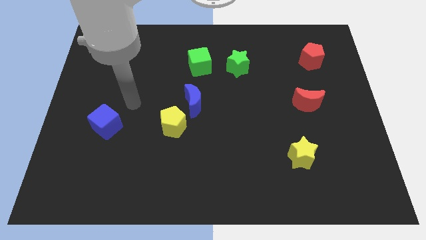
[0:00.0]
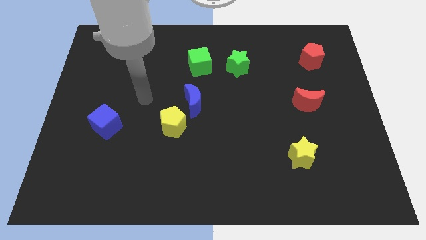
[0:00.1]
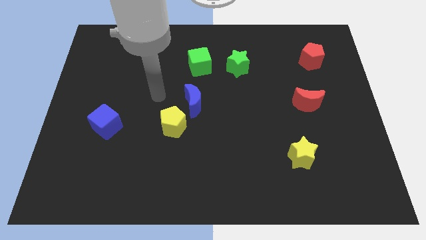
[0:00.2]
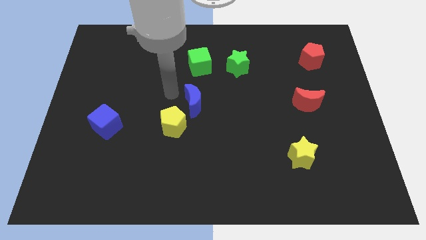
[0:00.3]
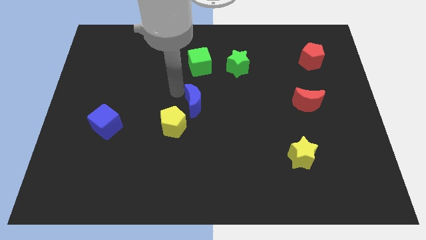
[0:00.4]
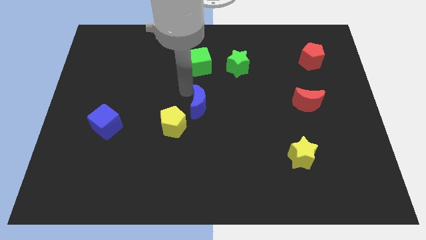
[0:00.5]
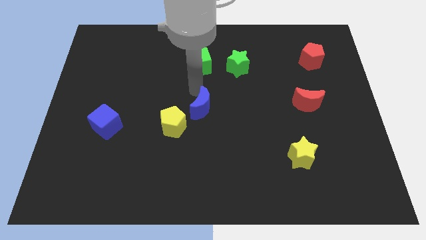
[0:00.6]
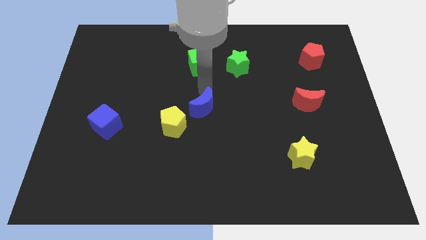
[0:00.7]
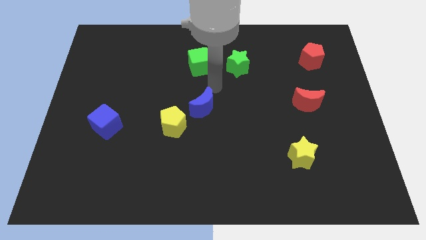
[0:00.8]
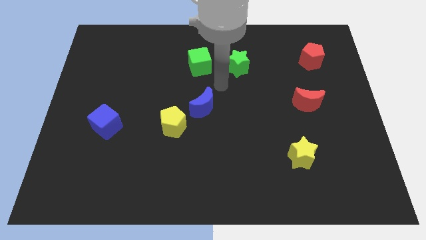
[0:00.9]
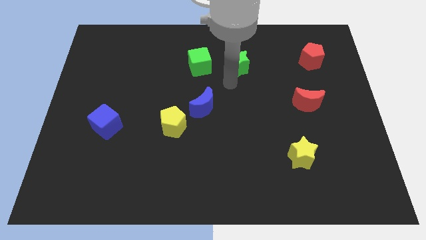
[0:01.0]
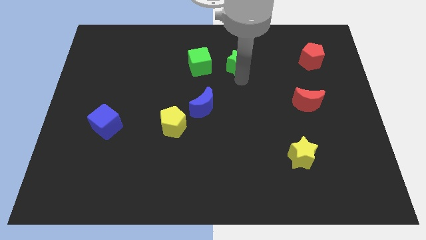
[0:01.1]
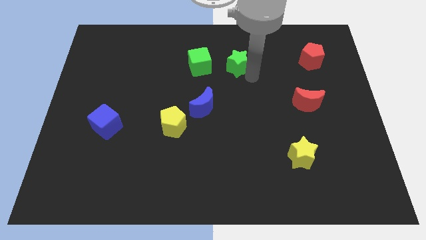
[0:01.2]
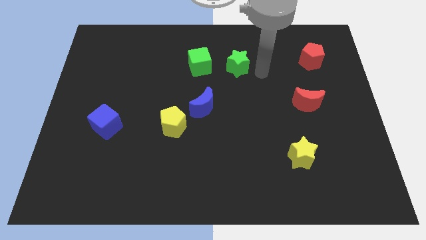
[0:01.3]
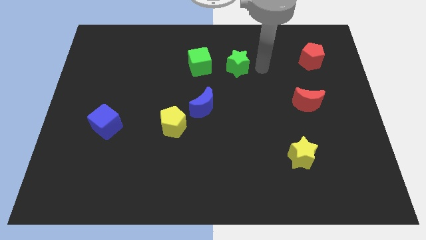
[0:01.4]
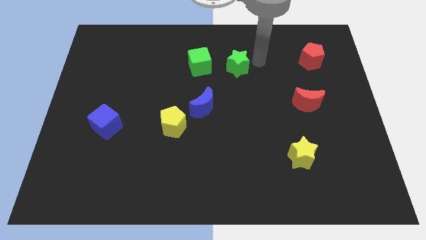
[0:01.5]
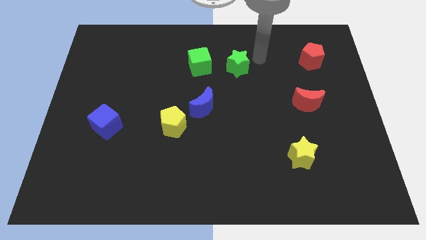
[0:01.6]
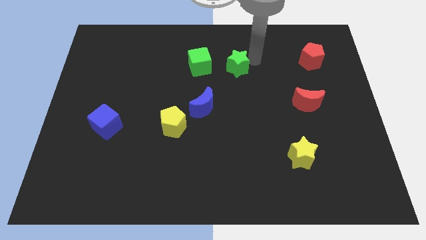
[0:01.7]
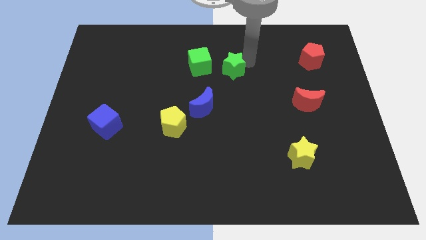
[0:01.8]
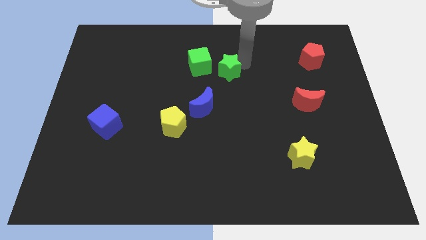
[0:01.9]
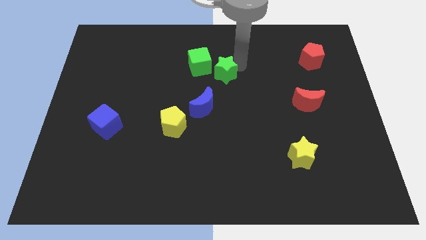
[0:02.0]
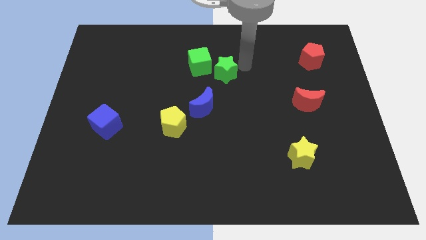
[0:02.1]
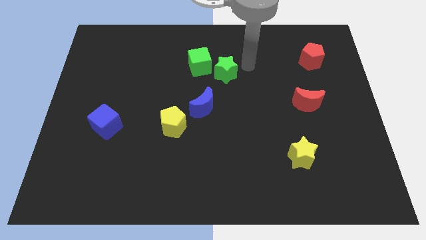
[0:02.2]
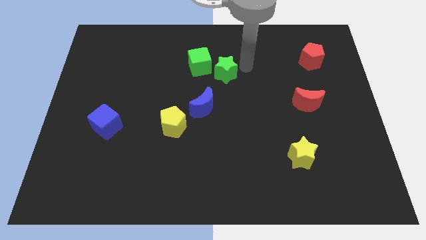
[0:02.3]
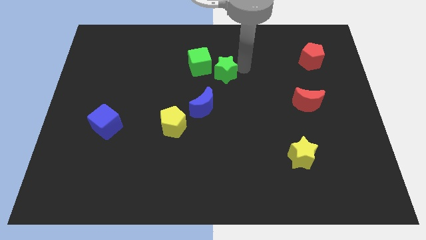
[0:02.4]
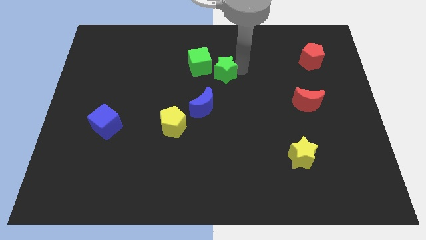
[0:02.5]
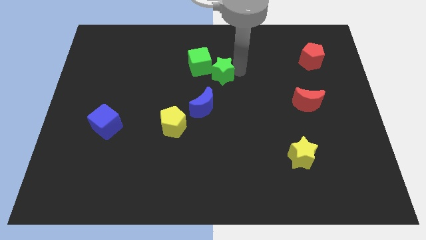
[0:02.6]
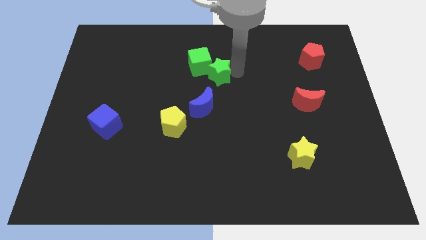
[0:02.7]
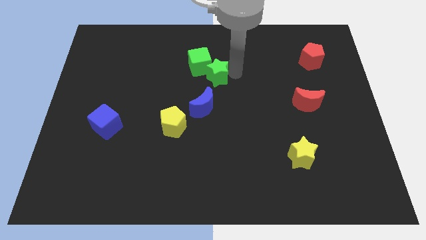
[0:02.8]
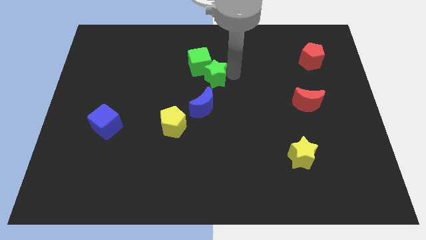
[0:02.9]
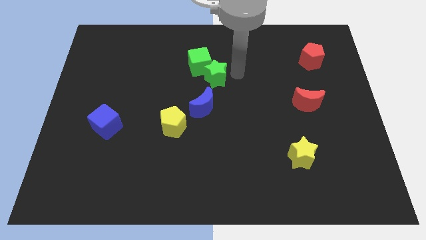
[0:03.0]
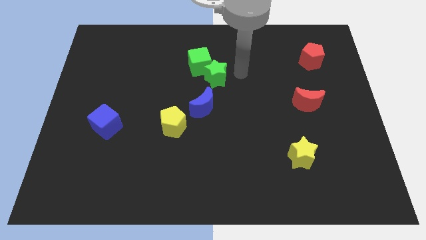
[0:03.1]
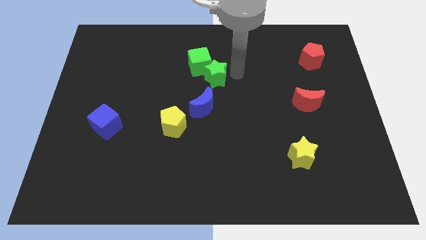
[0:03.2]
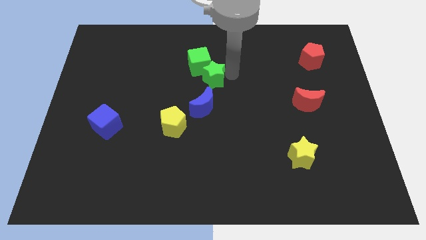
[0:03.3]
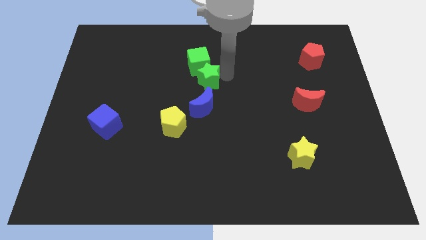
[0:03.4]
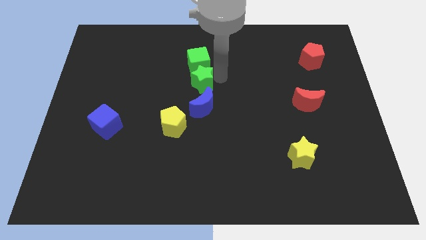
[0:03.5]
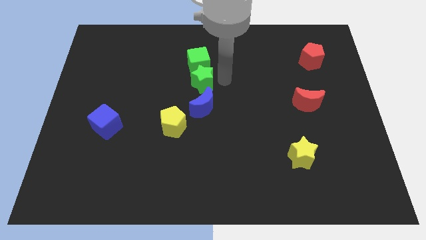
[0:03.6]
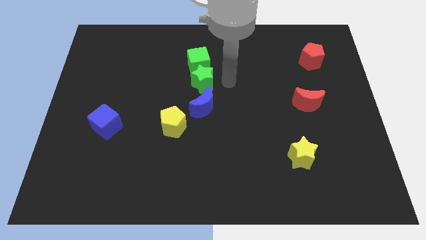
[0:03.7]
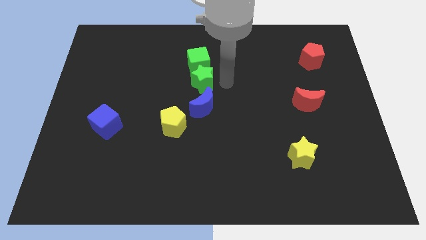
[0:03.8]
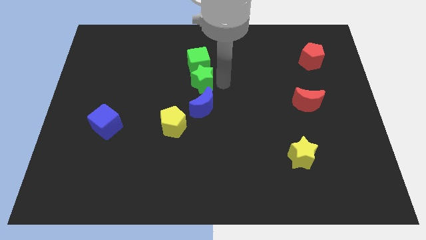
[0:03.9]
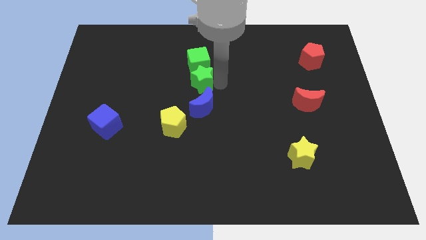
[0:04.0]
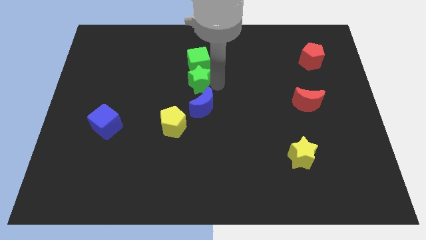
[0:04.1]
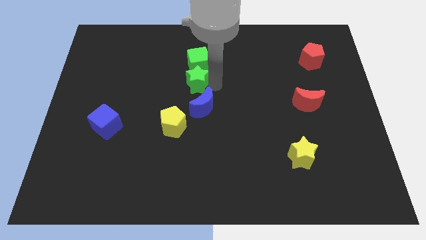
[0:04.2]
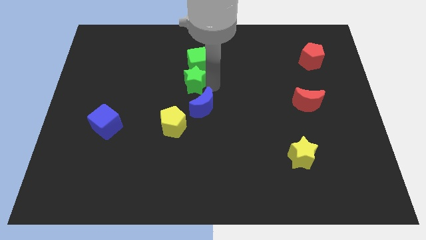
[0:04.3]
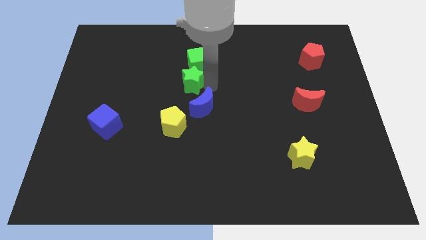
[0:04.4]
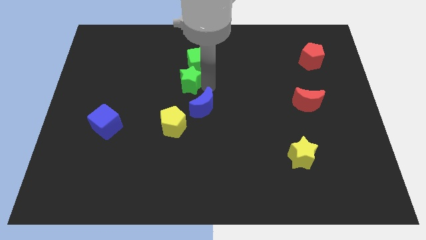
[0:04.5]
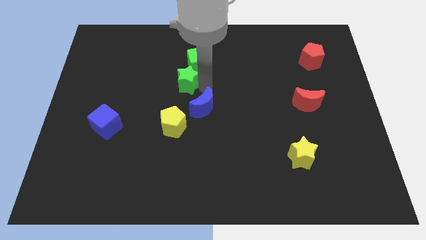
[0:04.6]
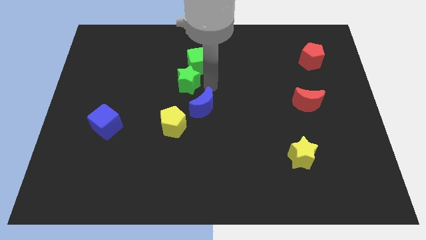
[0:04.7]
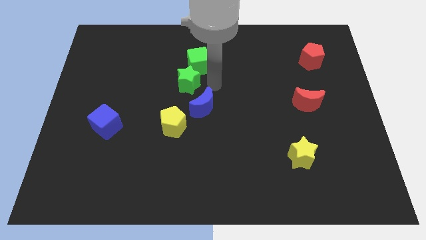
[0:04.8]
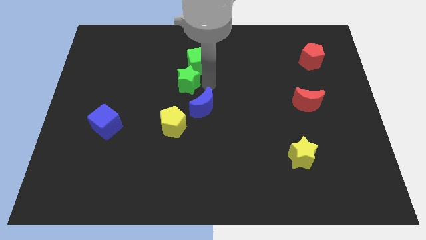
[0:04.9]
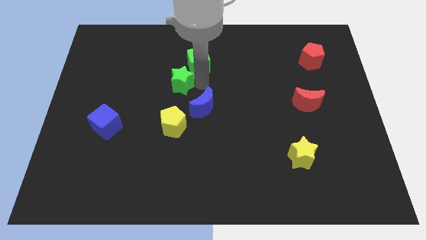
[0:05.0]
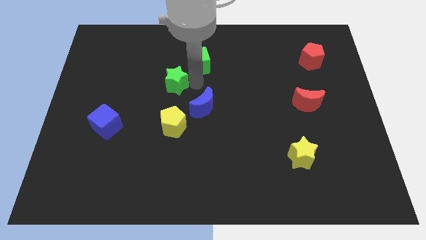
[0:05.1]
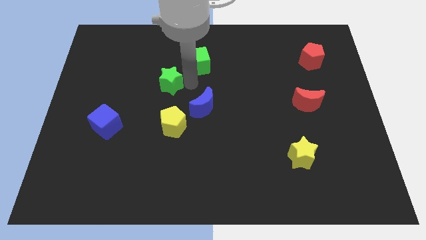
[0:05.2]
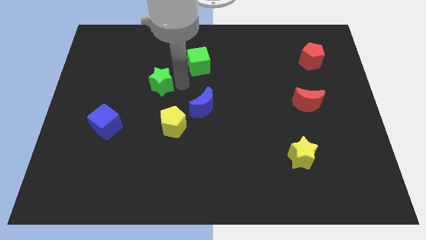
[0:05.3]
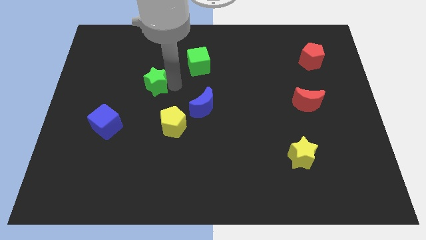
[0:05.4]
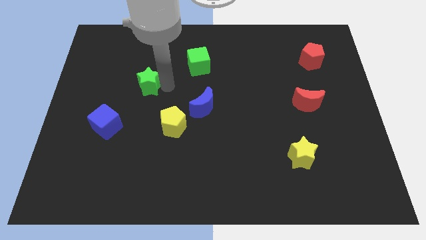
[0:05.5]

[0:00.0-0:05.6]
push the green star to the left

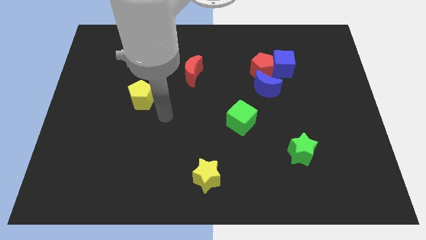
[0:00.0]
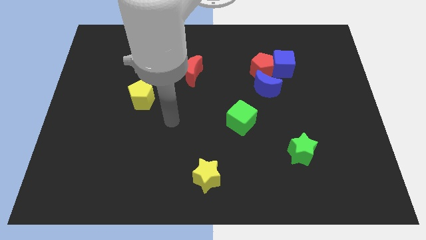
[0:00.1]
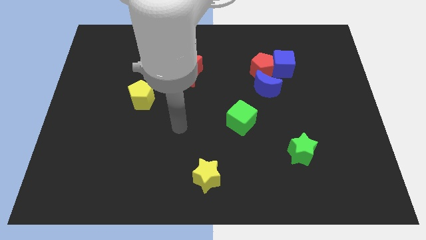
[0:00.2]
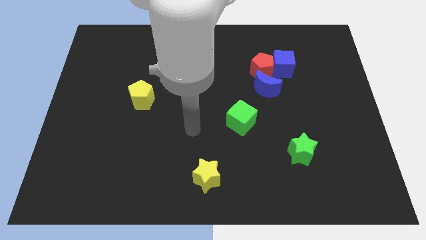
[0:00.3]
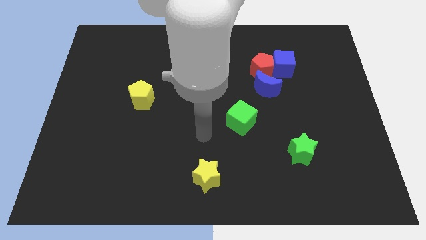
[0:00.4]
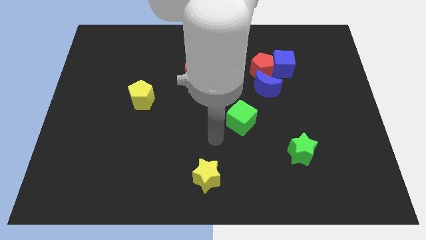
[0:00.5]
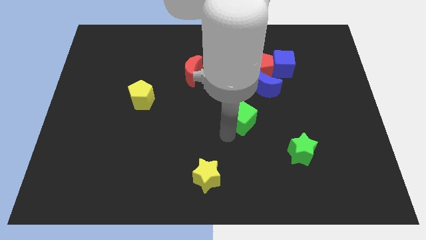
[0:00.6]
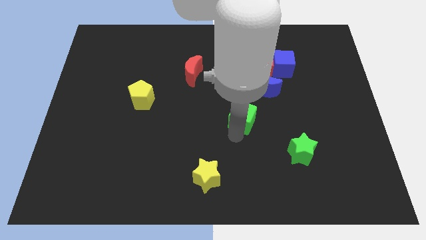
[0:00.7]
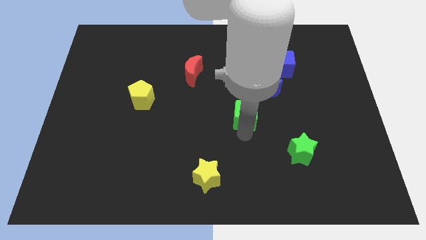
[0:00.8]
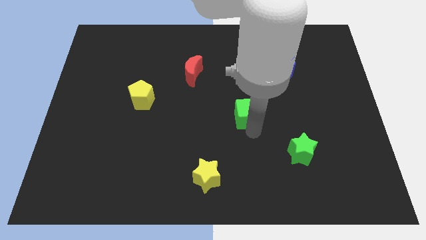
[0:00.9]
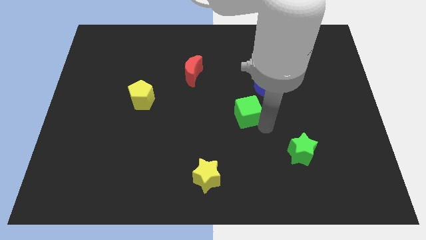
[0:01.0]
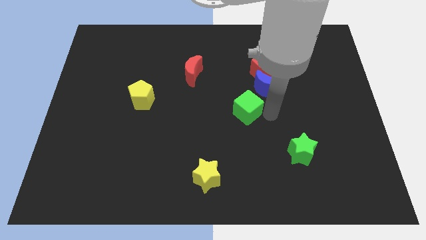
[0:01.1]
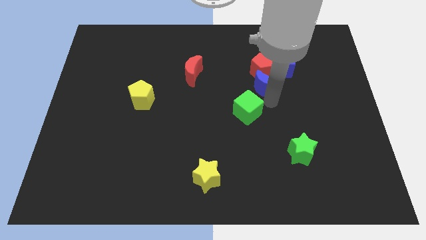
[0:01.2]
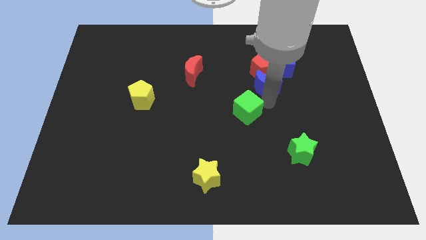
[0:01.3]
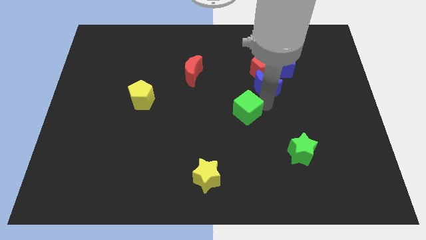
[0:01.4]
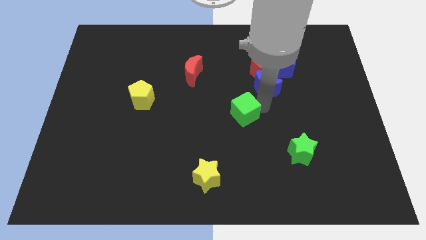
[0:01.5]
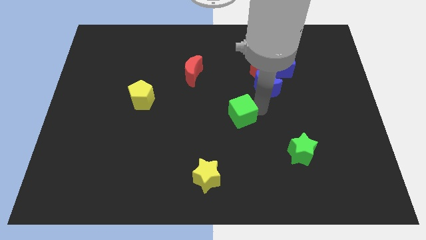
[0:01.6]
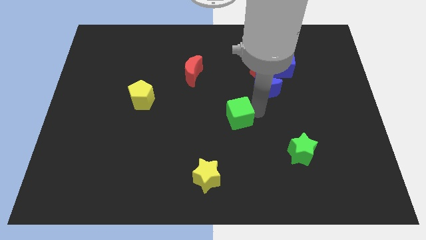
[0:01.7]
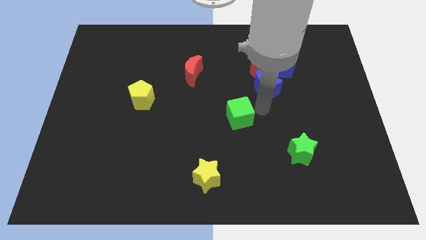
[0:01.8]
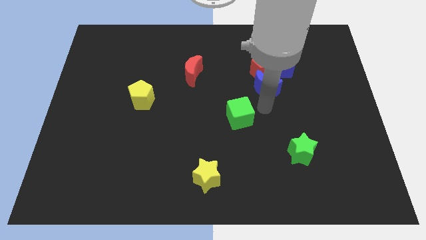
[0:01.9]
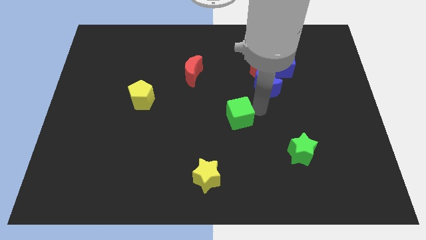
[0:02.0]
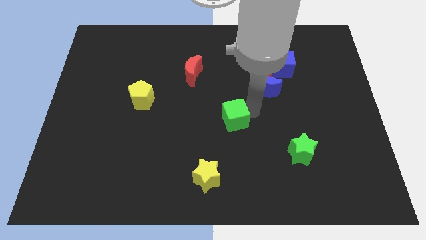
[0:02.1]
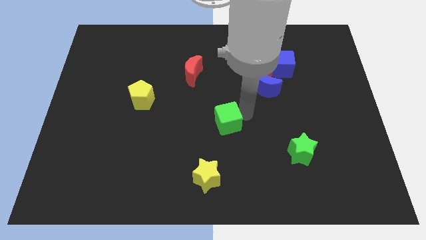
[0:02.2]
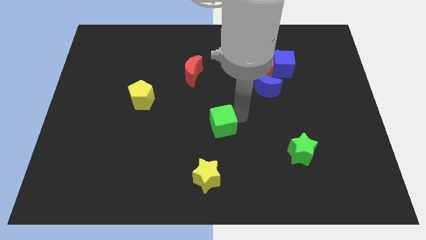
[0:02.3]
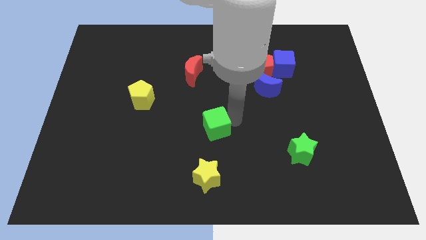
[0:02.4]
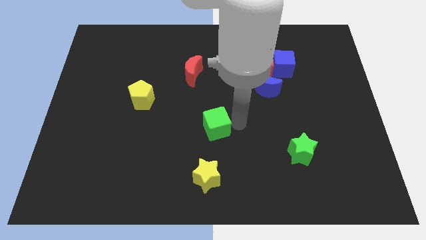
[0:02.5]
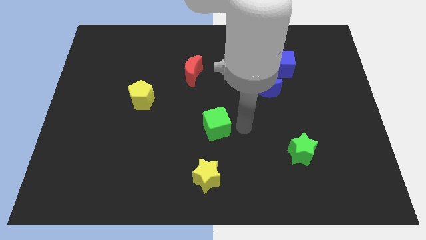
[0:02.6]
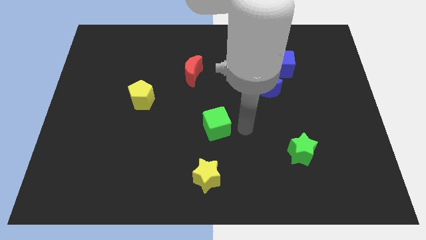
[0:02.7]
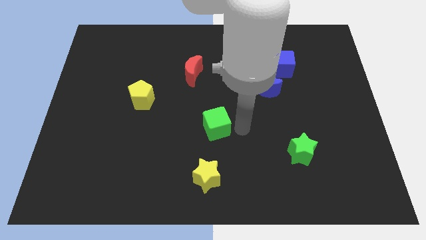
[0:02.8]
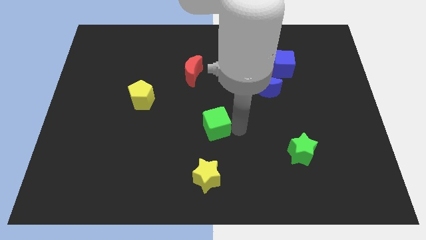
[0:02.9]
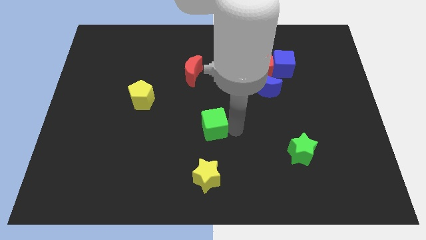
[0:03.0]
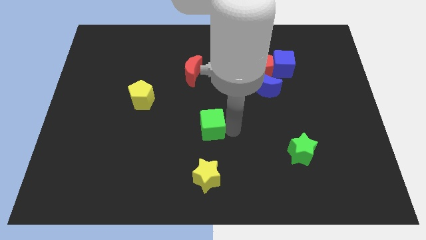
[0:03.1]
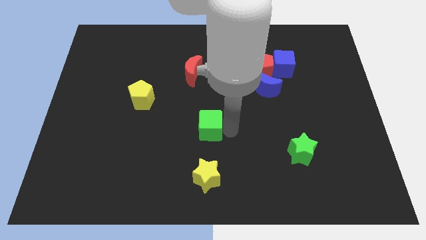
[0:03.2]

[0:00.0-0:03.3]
push the green cube to the left a bit
